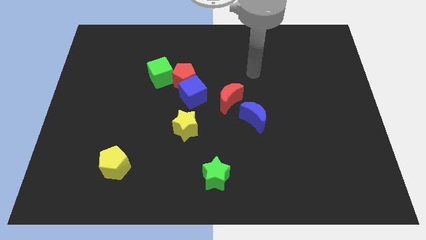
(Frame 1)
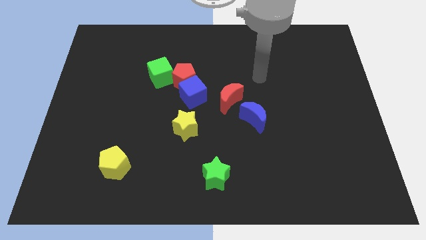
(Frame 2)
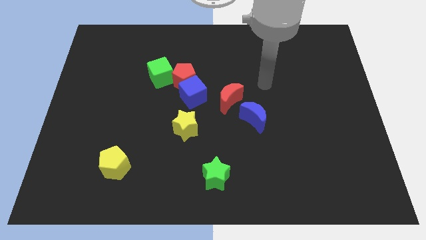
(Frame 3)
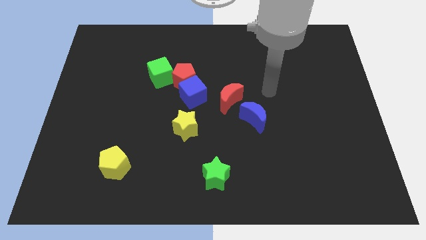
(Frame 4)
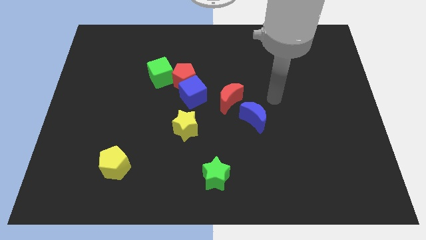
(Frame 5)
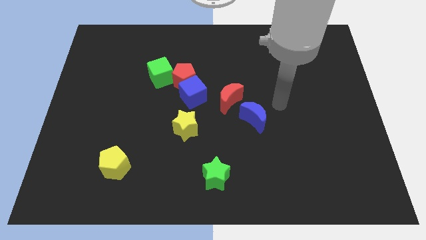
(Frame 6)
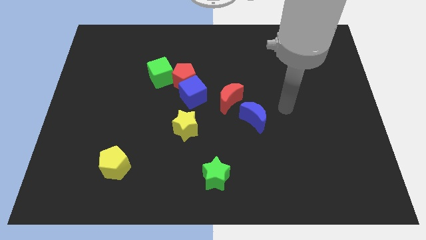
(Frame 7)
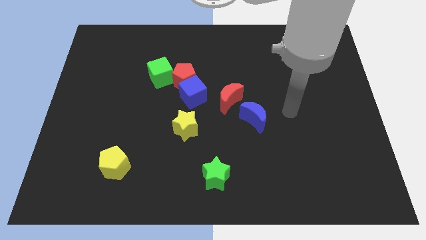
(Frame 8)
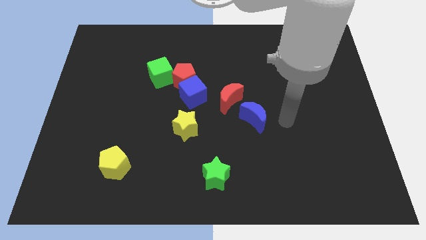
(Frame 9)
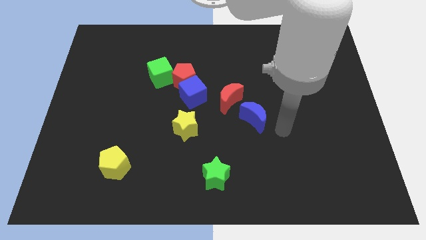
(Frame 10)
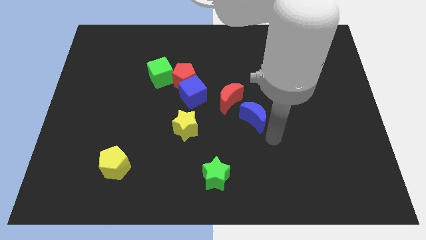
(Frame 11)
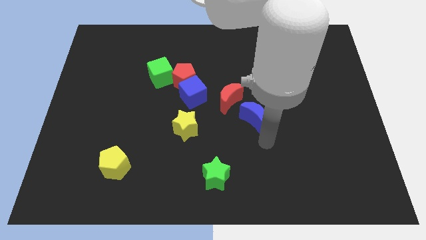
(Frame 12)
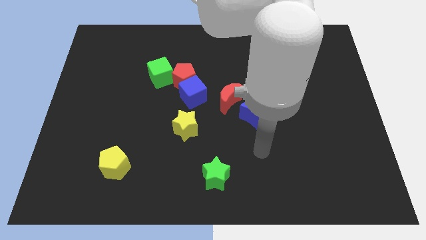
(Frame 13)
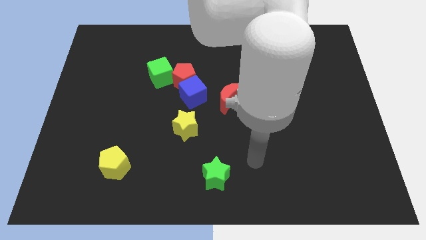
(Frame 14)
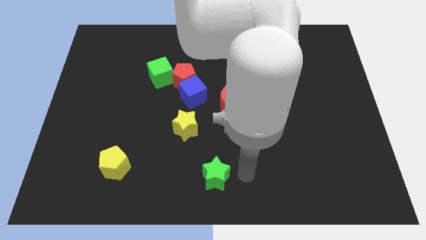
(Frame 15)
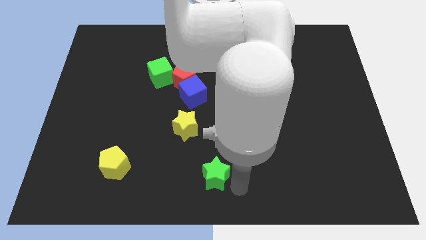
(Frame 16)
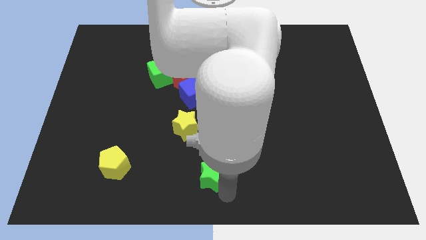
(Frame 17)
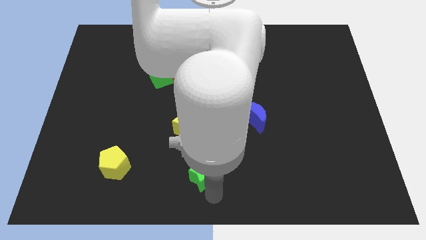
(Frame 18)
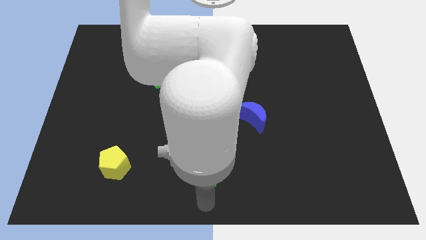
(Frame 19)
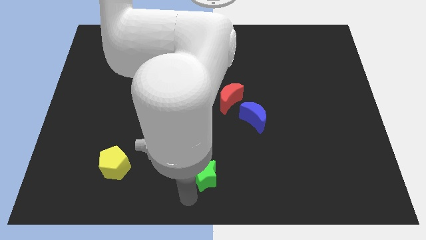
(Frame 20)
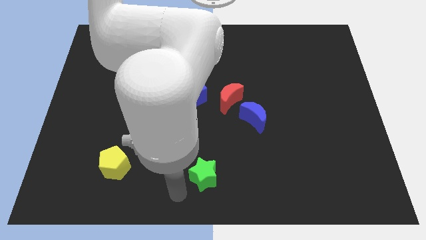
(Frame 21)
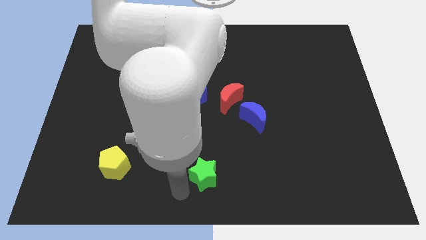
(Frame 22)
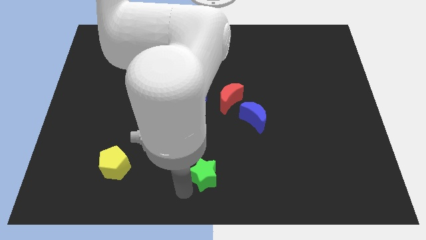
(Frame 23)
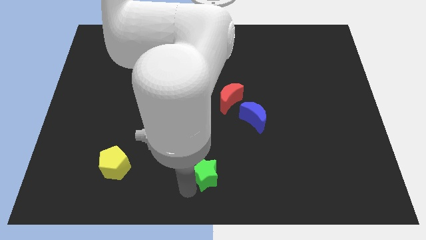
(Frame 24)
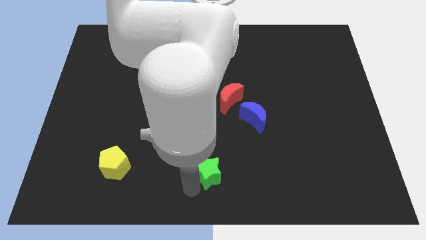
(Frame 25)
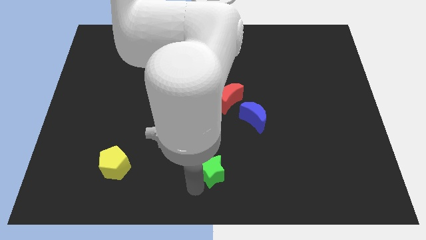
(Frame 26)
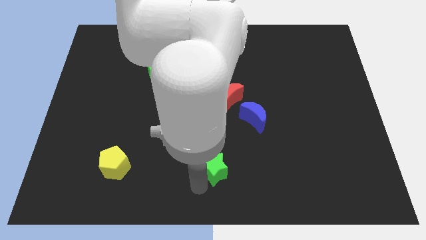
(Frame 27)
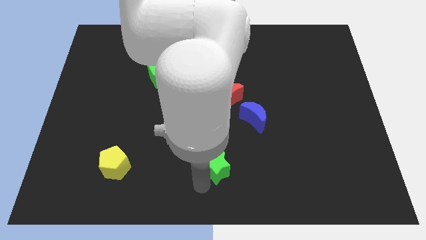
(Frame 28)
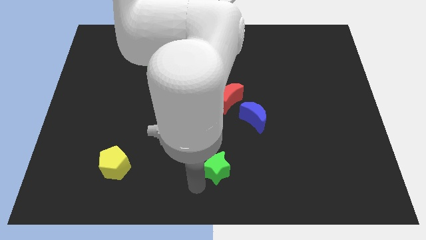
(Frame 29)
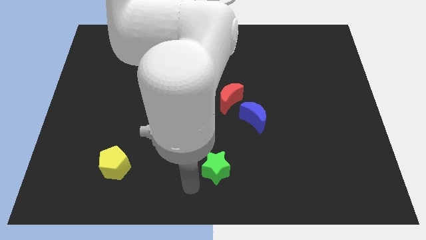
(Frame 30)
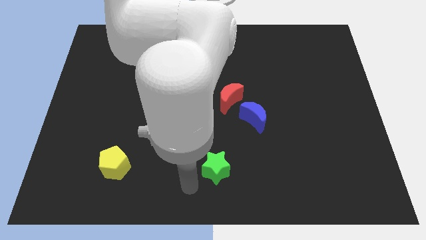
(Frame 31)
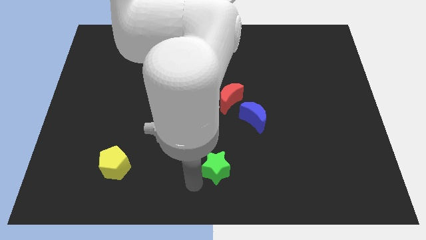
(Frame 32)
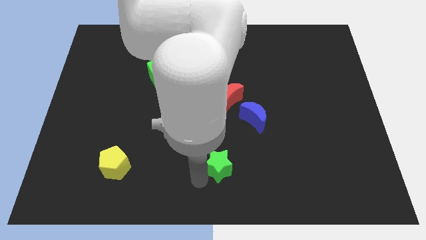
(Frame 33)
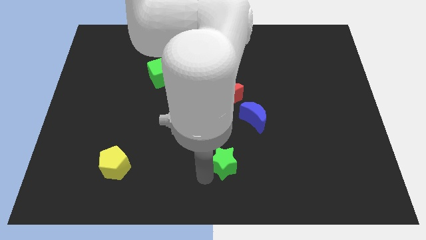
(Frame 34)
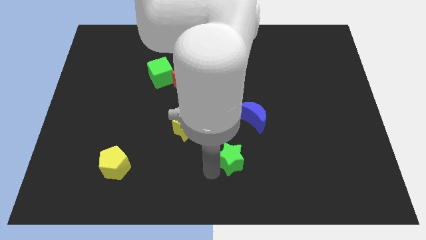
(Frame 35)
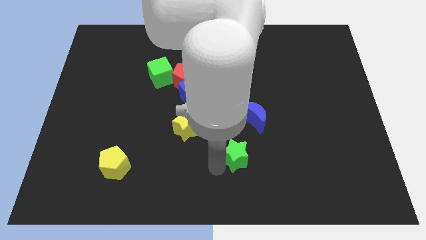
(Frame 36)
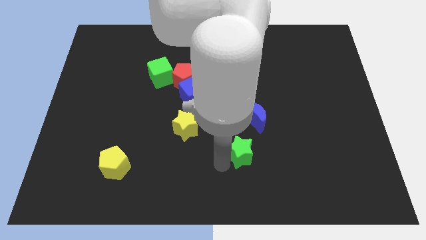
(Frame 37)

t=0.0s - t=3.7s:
push the green star a little upwards and then right

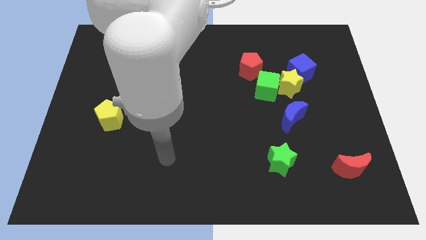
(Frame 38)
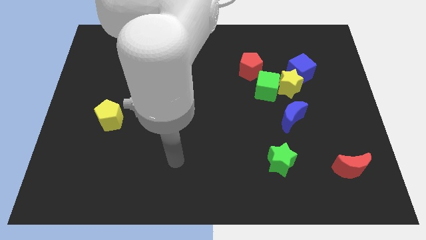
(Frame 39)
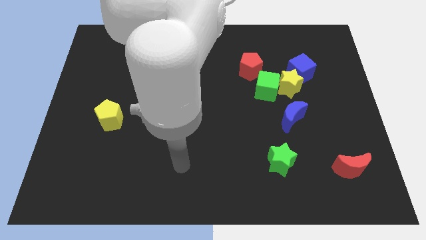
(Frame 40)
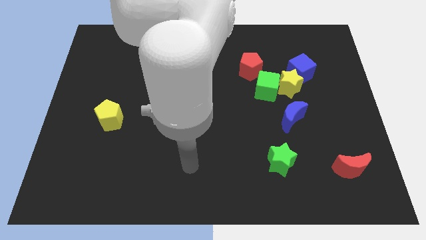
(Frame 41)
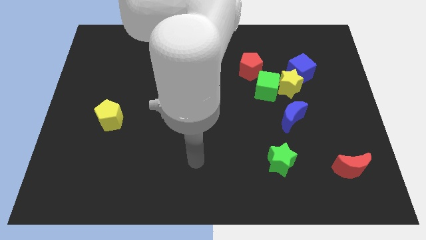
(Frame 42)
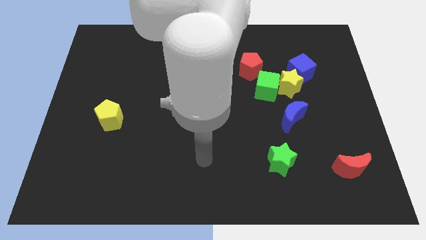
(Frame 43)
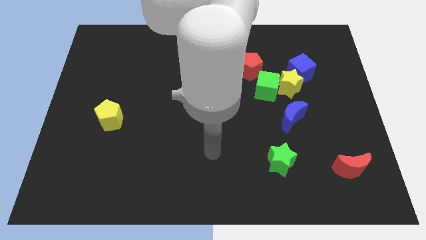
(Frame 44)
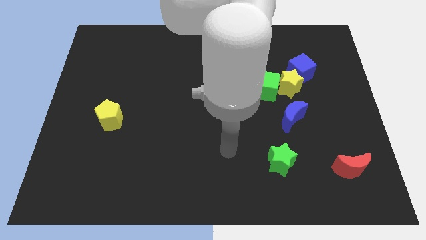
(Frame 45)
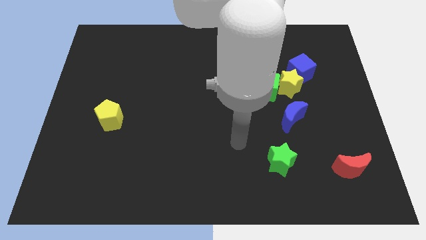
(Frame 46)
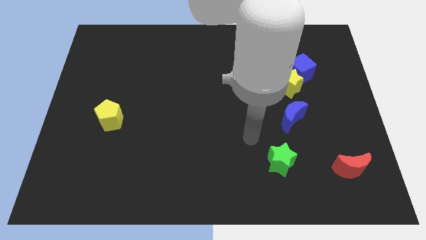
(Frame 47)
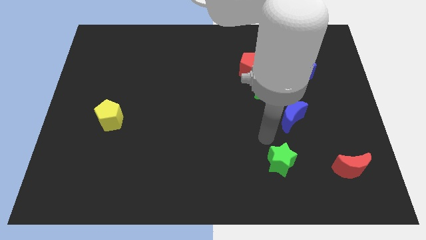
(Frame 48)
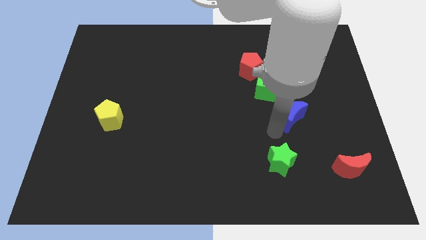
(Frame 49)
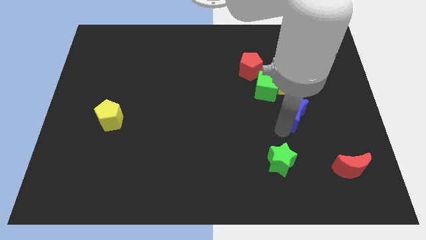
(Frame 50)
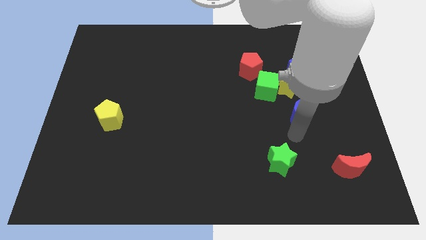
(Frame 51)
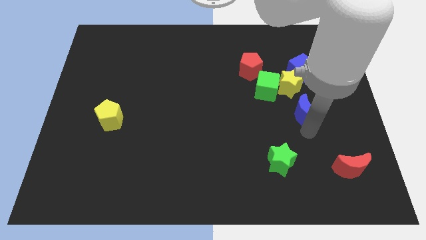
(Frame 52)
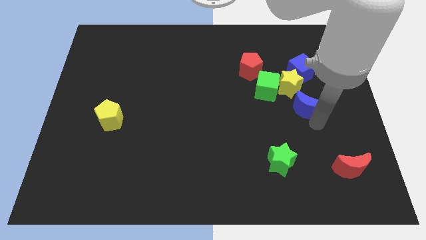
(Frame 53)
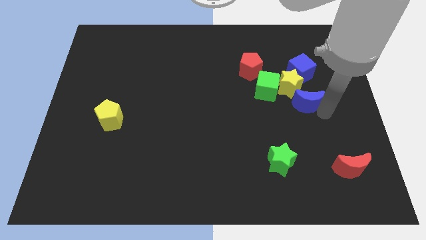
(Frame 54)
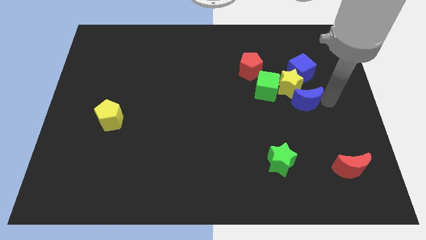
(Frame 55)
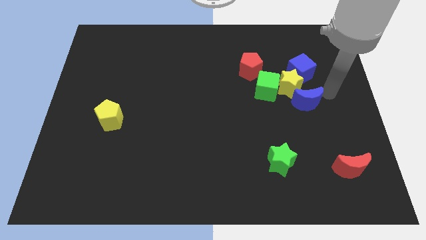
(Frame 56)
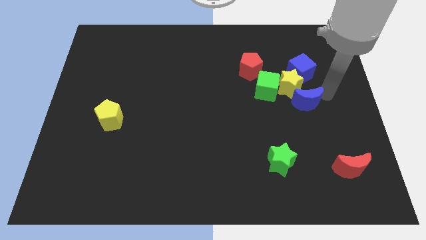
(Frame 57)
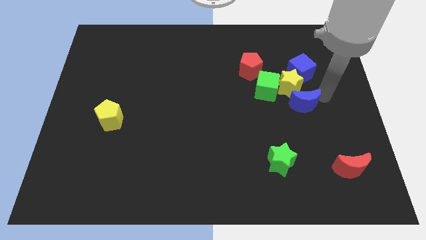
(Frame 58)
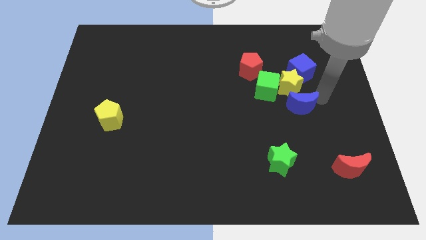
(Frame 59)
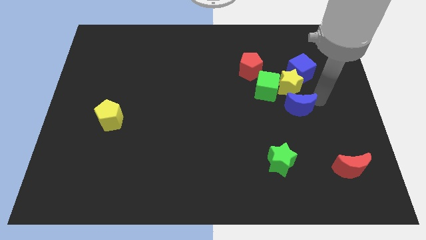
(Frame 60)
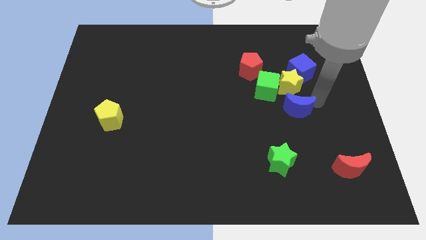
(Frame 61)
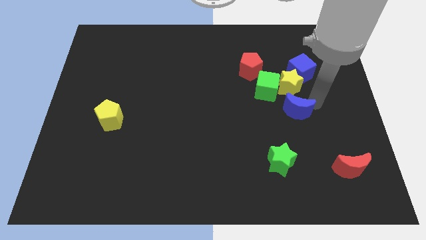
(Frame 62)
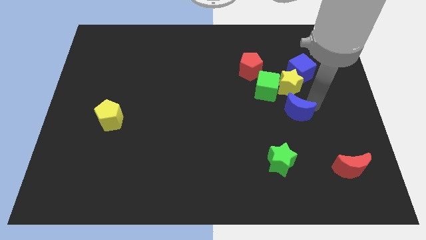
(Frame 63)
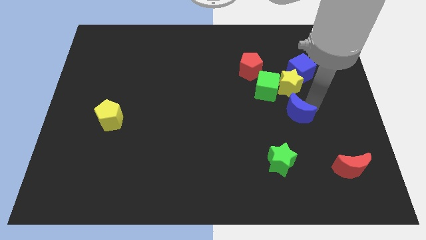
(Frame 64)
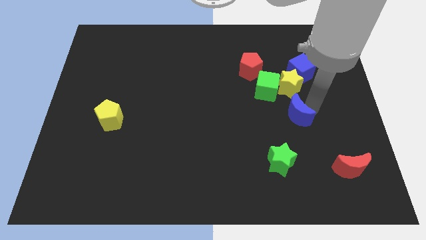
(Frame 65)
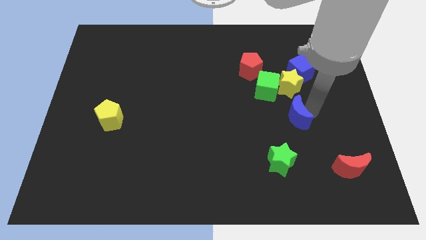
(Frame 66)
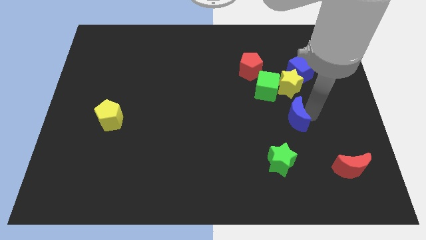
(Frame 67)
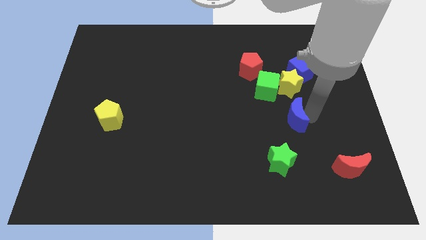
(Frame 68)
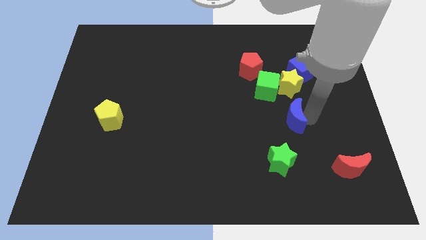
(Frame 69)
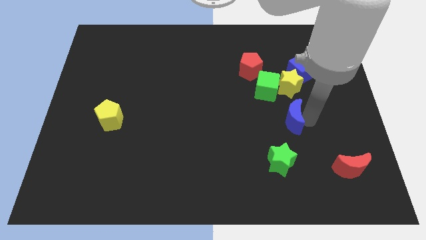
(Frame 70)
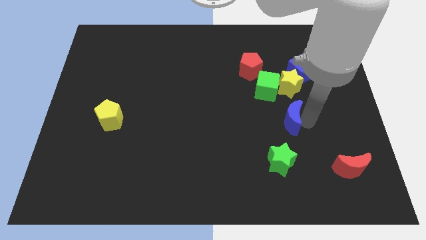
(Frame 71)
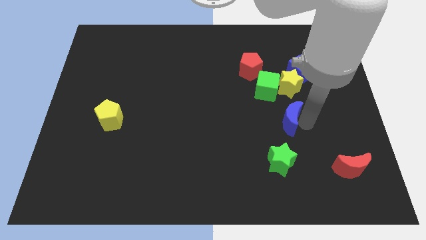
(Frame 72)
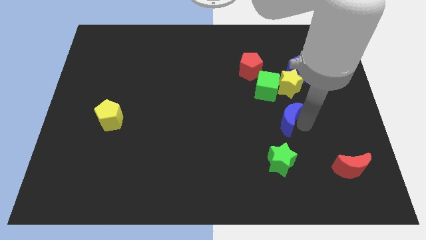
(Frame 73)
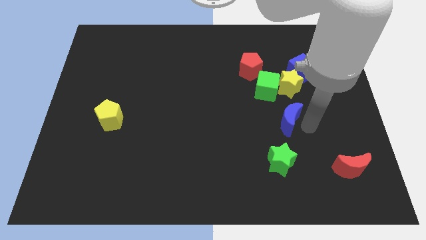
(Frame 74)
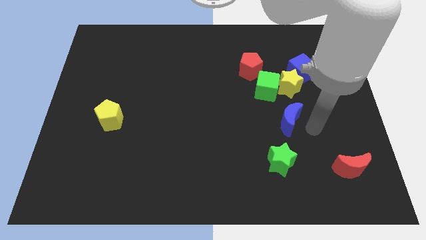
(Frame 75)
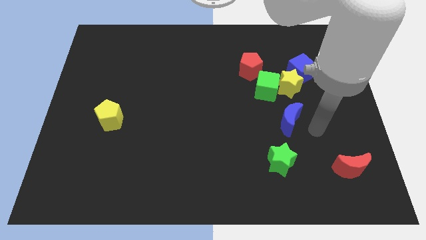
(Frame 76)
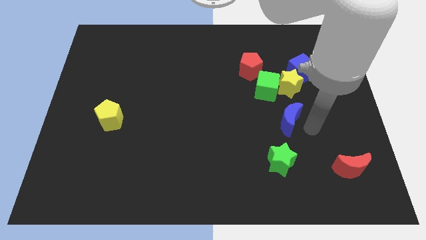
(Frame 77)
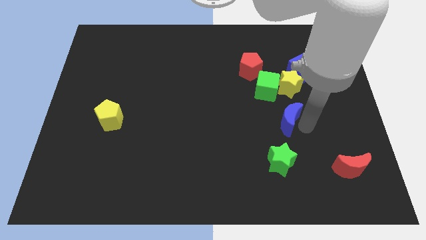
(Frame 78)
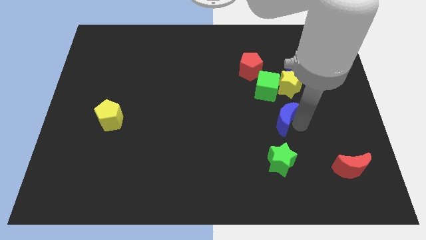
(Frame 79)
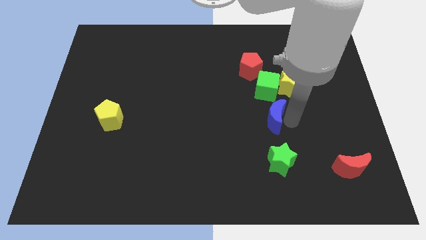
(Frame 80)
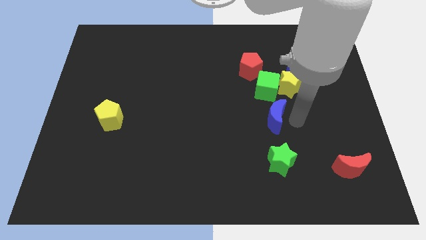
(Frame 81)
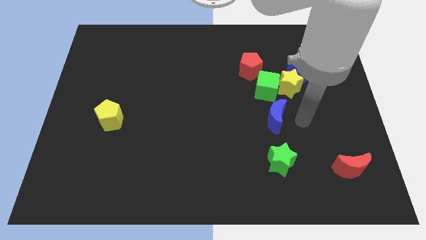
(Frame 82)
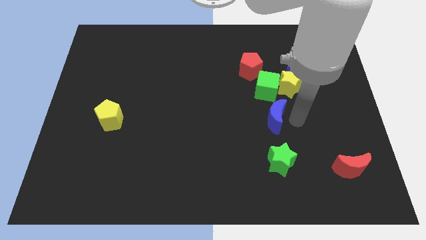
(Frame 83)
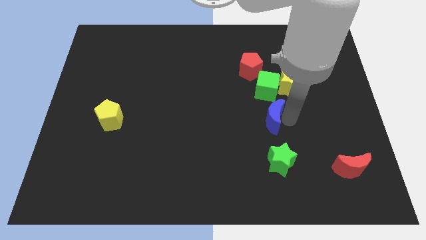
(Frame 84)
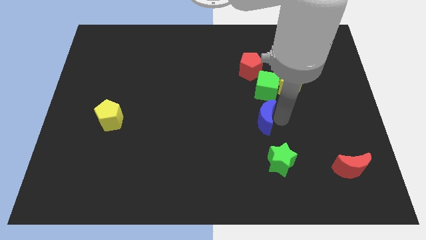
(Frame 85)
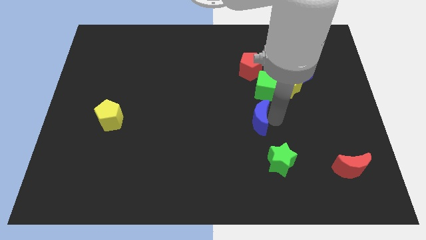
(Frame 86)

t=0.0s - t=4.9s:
slide the blue moon left slightly

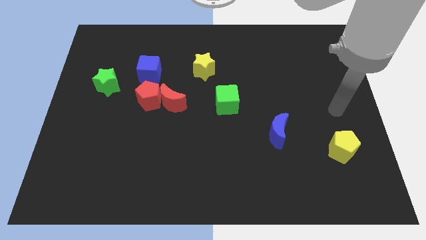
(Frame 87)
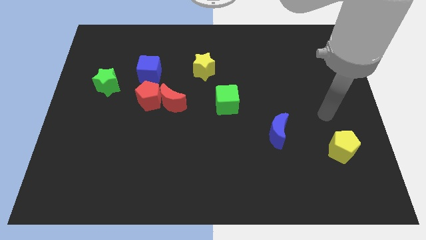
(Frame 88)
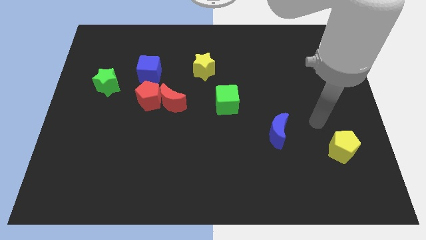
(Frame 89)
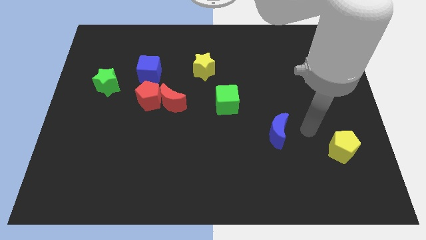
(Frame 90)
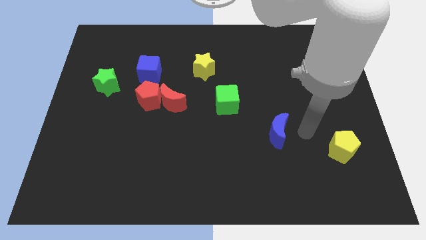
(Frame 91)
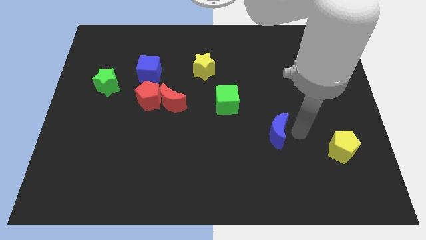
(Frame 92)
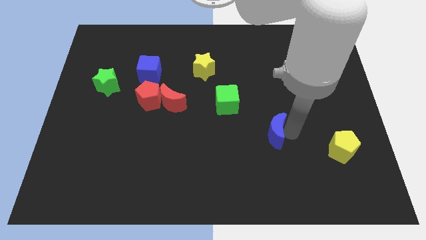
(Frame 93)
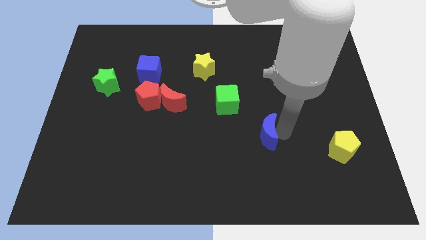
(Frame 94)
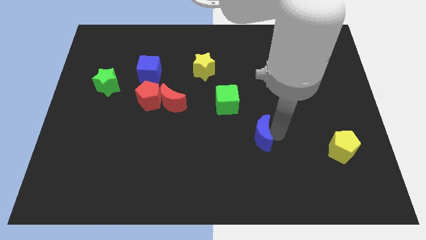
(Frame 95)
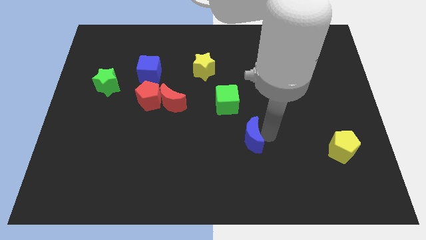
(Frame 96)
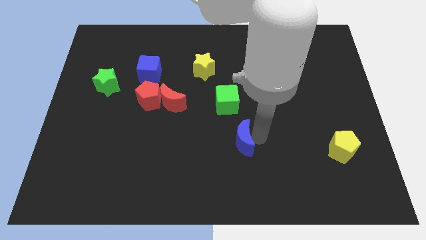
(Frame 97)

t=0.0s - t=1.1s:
slide the blue moon slightly to the left
